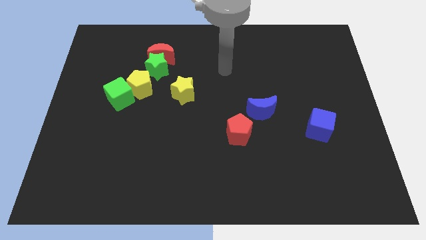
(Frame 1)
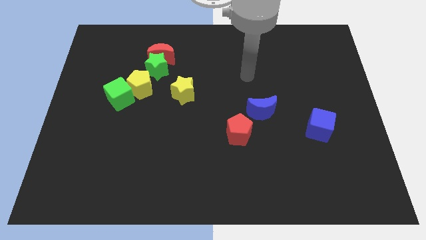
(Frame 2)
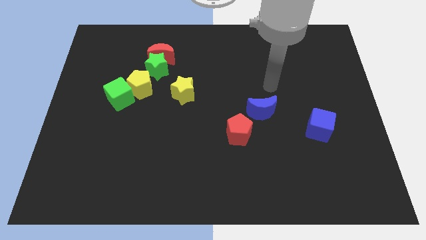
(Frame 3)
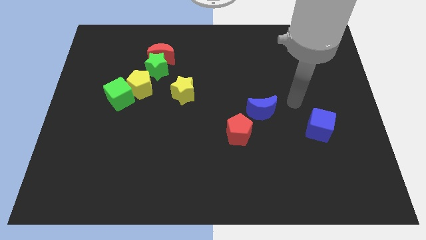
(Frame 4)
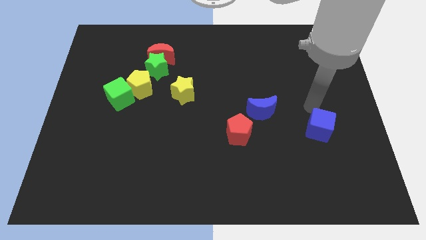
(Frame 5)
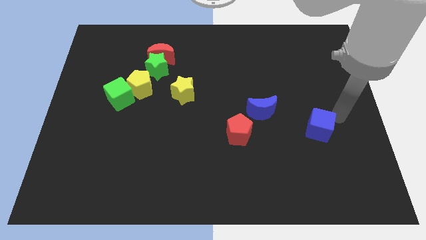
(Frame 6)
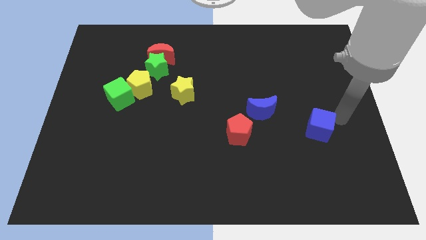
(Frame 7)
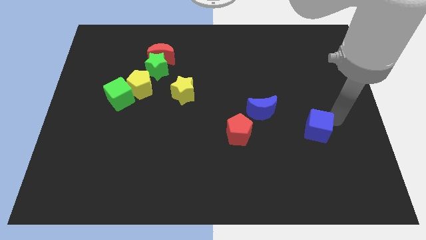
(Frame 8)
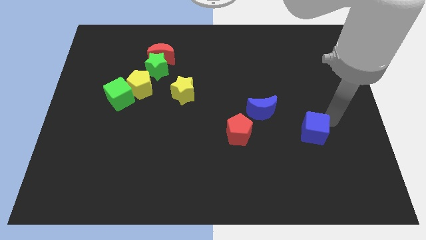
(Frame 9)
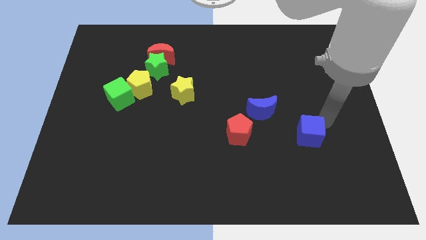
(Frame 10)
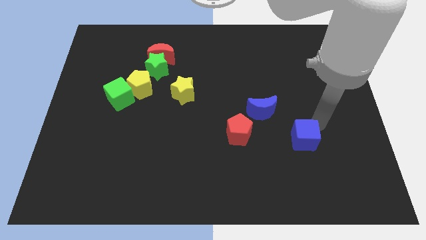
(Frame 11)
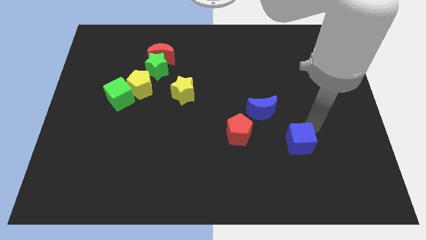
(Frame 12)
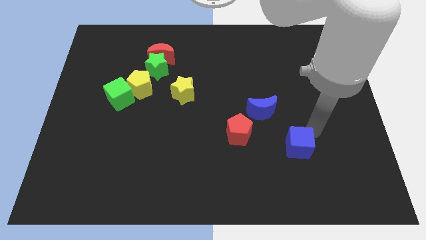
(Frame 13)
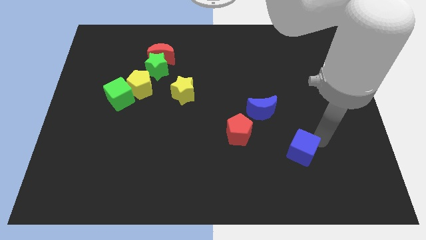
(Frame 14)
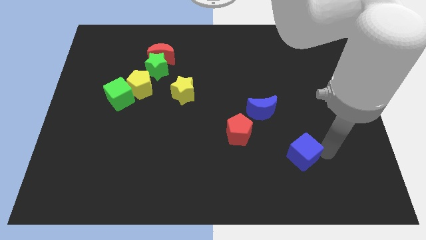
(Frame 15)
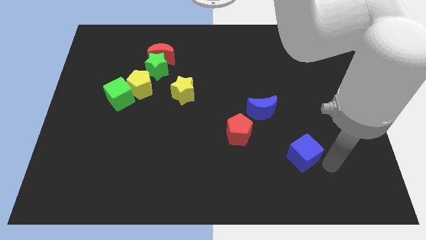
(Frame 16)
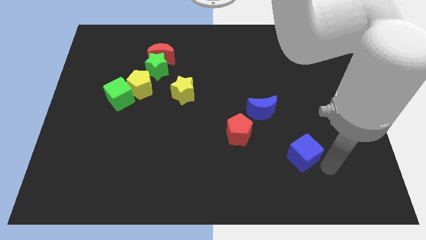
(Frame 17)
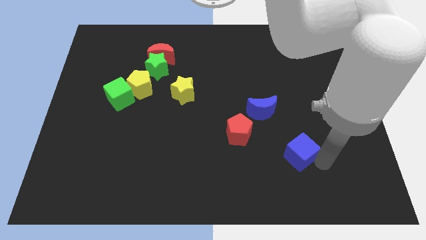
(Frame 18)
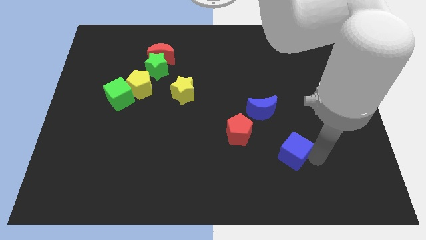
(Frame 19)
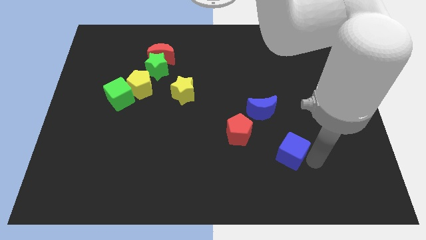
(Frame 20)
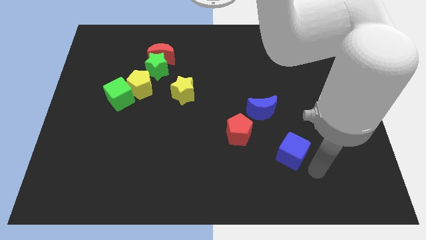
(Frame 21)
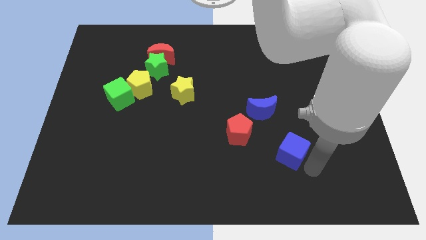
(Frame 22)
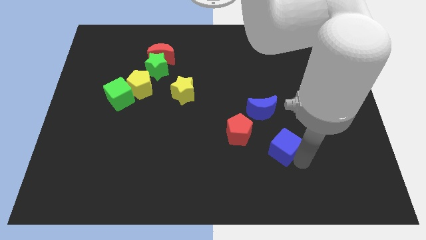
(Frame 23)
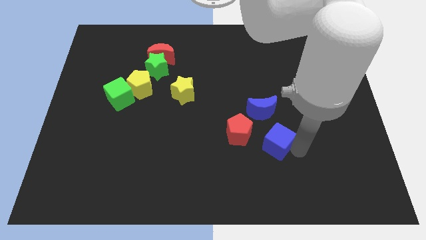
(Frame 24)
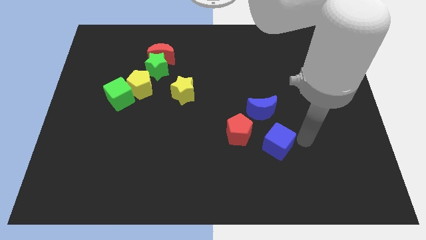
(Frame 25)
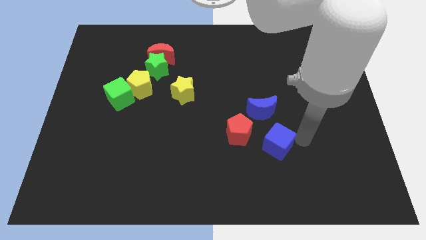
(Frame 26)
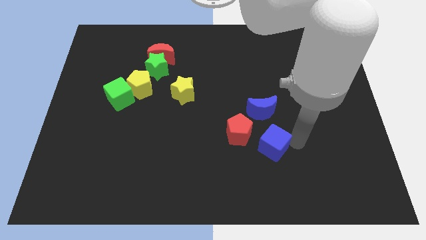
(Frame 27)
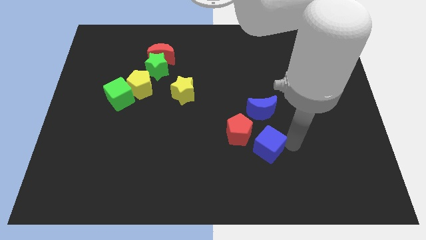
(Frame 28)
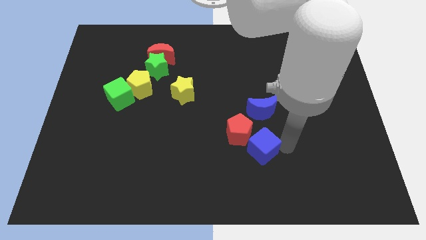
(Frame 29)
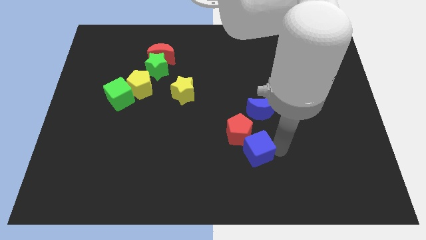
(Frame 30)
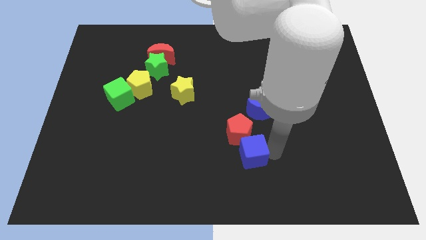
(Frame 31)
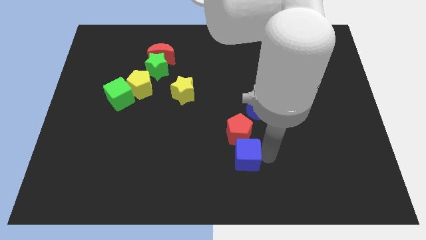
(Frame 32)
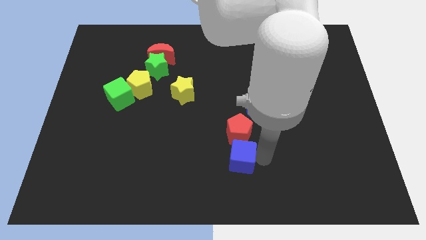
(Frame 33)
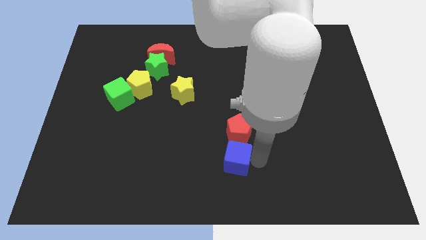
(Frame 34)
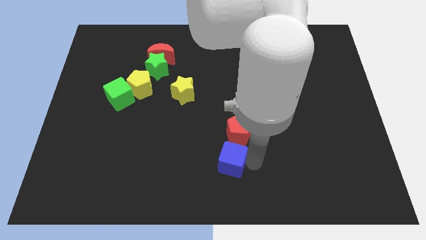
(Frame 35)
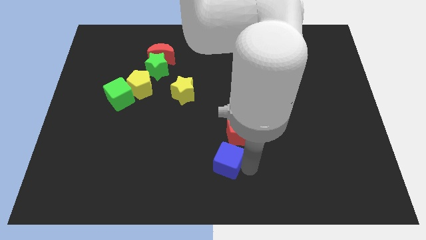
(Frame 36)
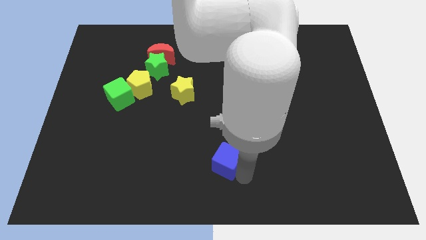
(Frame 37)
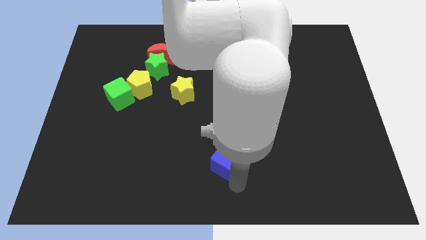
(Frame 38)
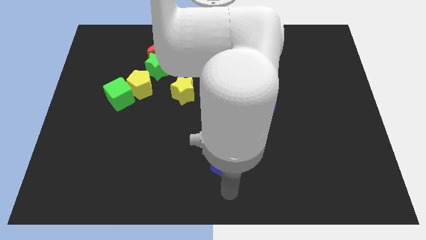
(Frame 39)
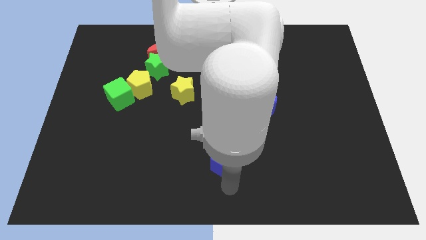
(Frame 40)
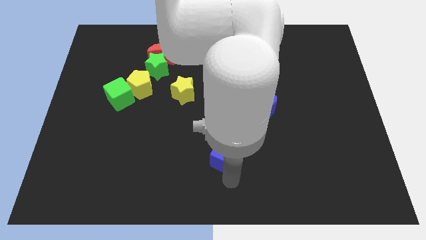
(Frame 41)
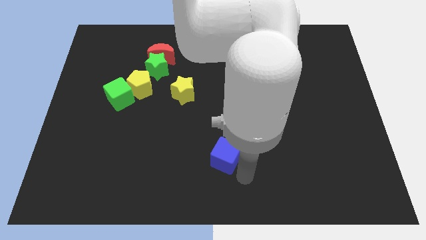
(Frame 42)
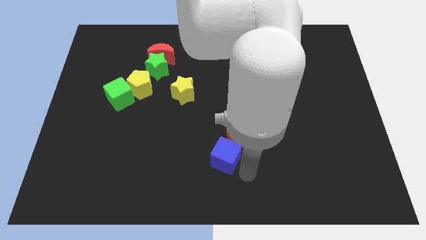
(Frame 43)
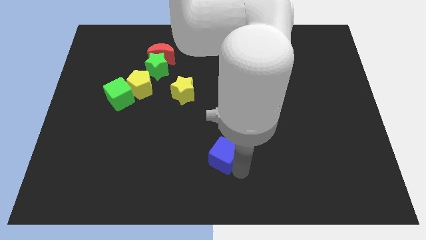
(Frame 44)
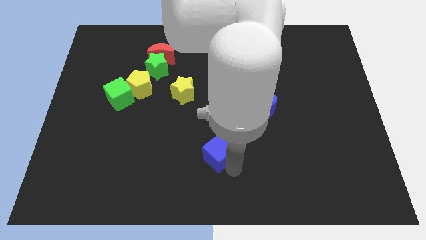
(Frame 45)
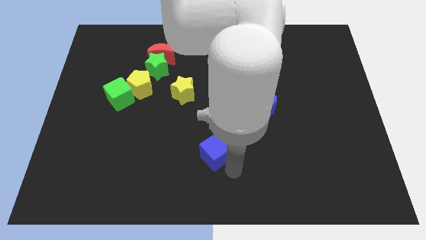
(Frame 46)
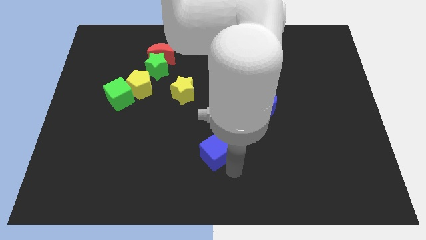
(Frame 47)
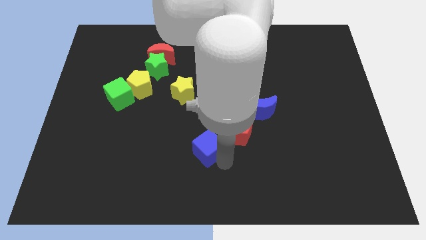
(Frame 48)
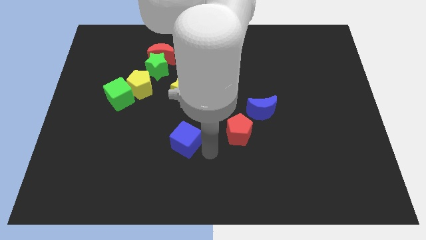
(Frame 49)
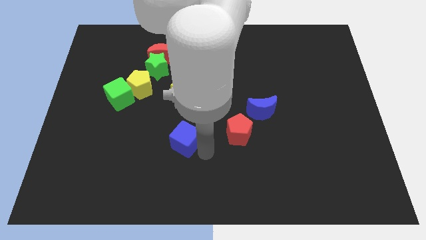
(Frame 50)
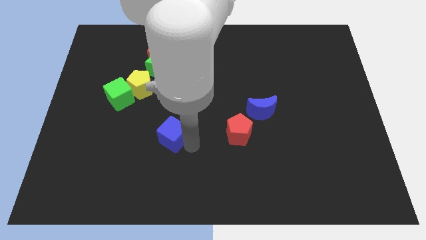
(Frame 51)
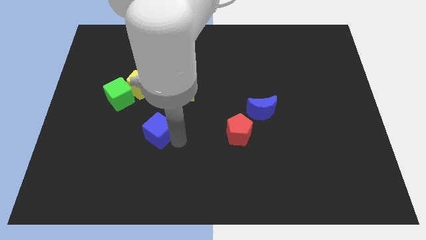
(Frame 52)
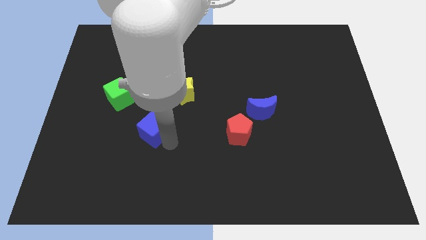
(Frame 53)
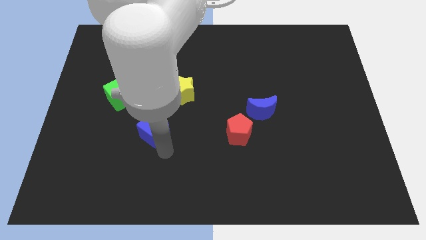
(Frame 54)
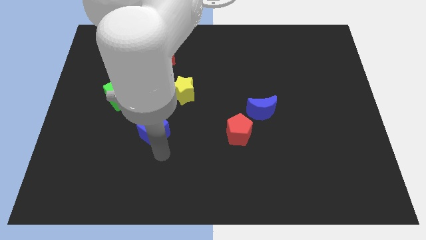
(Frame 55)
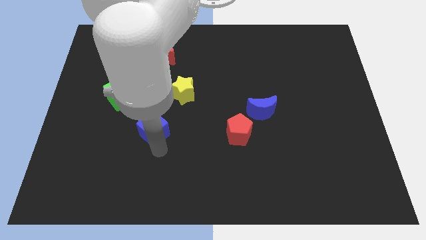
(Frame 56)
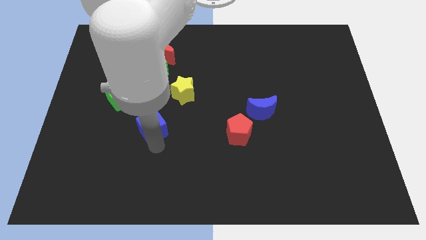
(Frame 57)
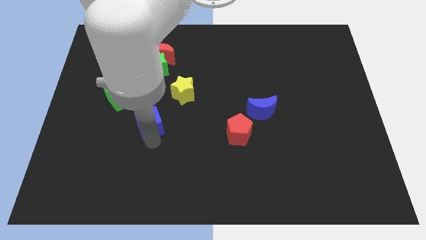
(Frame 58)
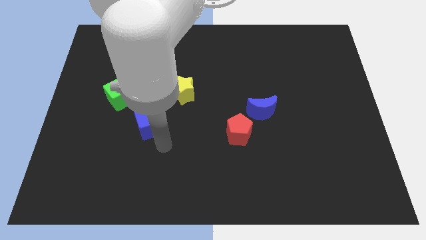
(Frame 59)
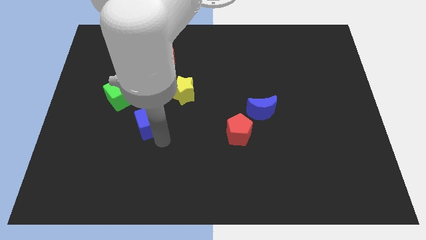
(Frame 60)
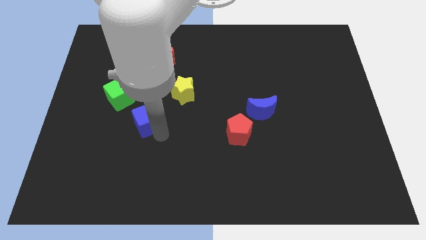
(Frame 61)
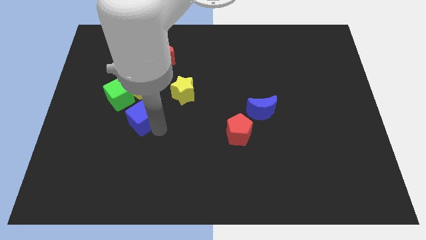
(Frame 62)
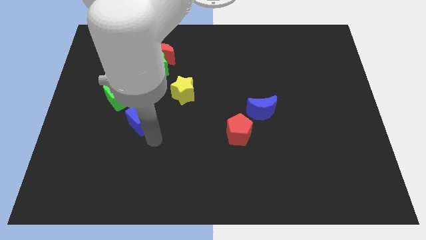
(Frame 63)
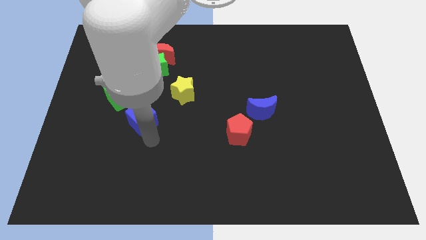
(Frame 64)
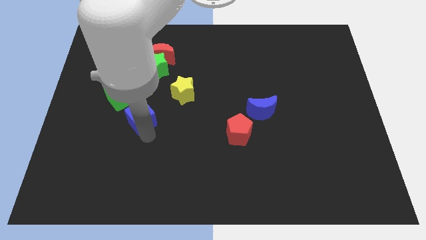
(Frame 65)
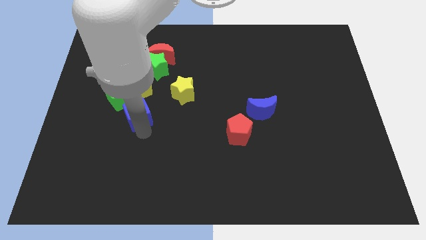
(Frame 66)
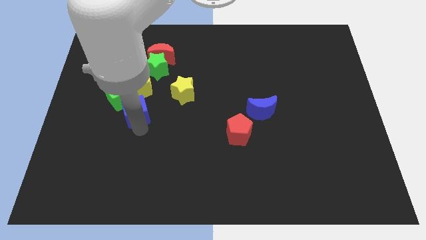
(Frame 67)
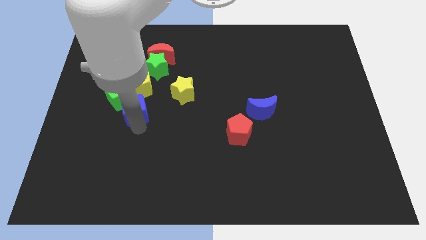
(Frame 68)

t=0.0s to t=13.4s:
push the blue cube next to the green cube

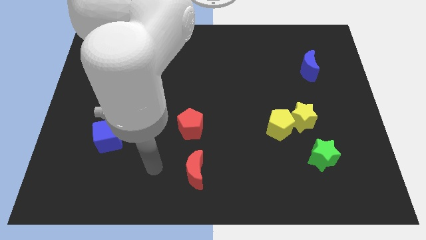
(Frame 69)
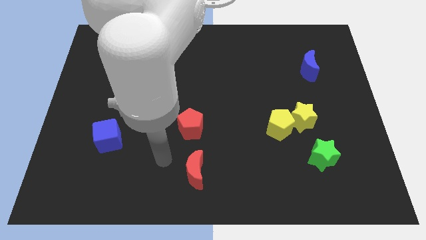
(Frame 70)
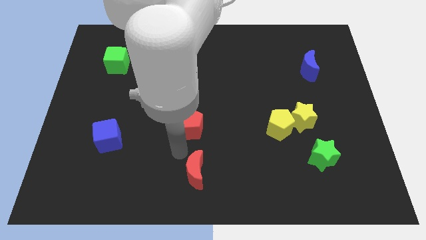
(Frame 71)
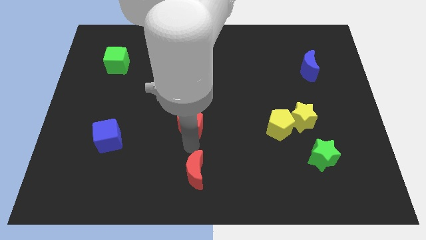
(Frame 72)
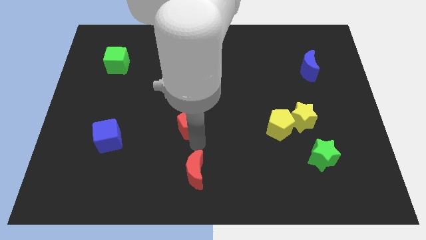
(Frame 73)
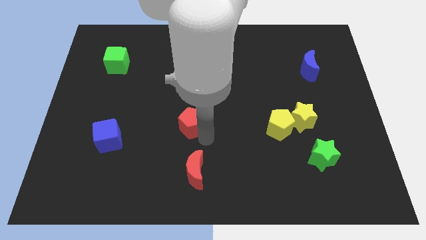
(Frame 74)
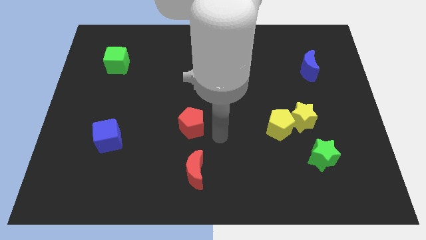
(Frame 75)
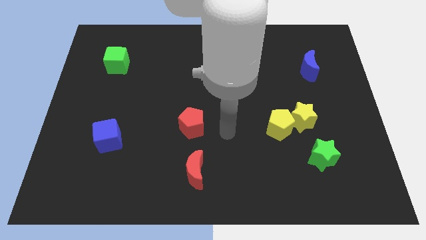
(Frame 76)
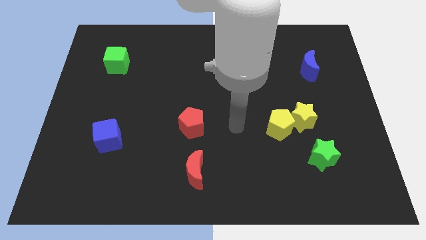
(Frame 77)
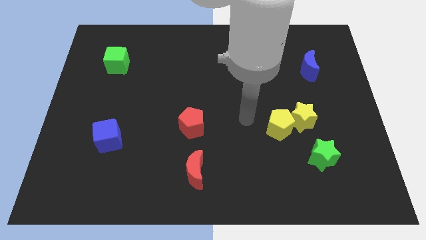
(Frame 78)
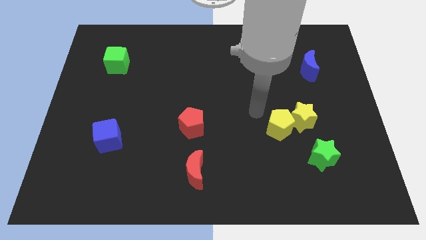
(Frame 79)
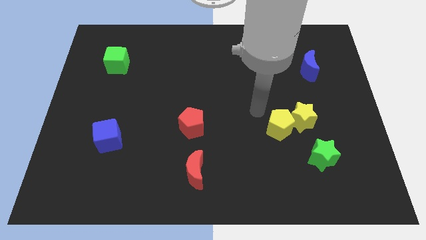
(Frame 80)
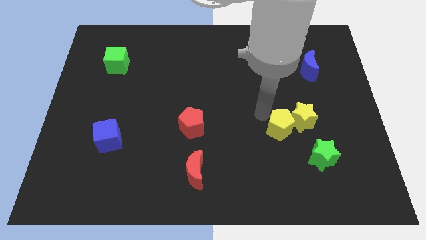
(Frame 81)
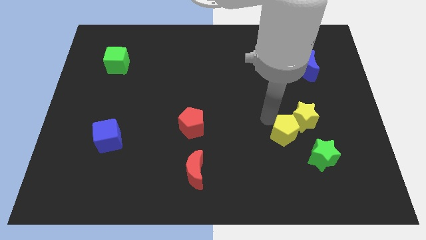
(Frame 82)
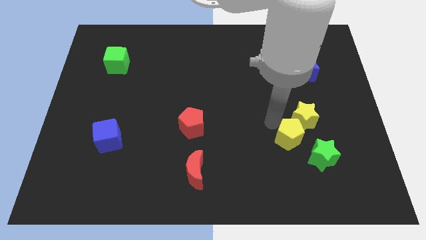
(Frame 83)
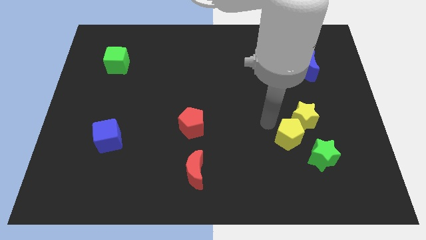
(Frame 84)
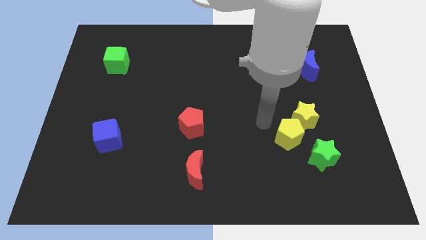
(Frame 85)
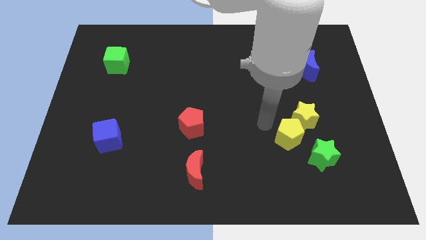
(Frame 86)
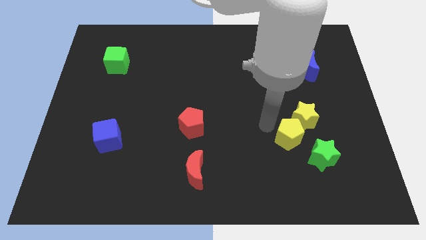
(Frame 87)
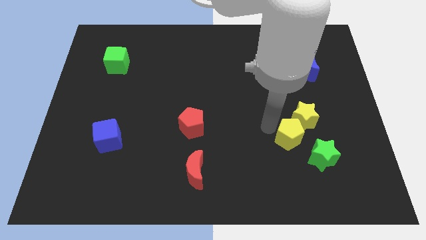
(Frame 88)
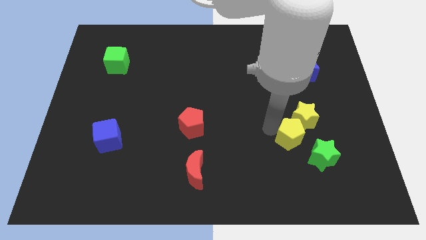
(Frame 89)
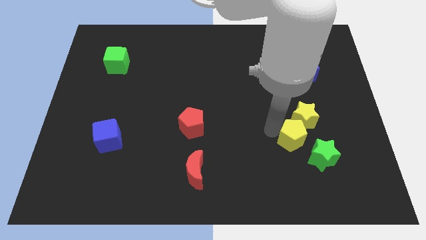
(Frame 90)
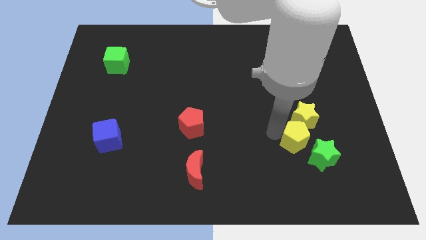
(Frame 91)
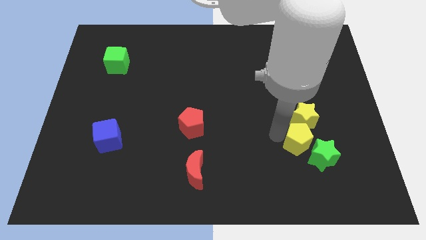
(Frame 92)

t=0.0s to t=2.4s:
push the yellow pentagon next to the green star
